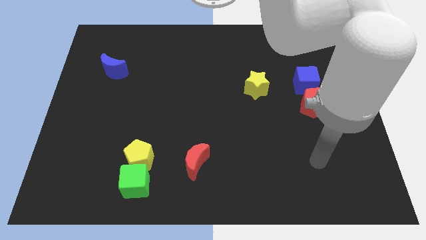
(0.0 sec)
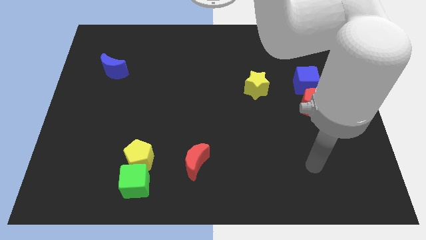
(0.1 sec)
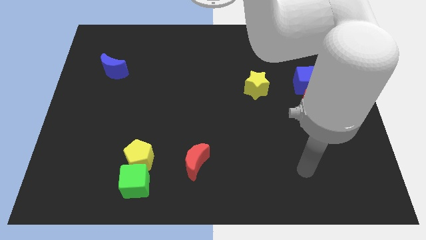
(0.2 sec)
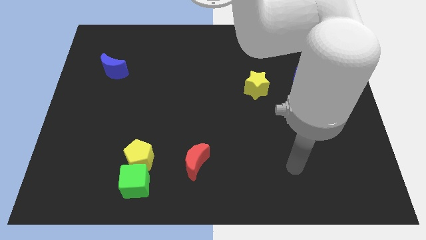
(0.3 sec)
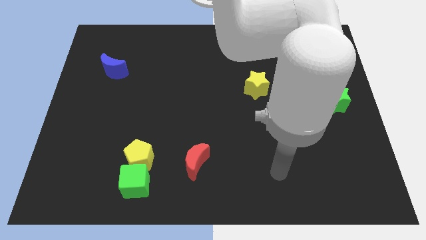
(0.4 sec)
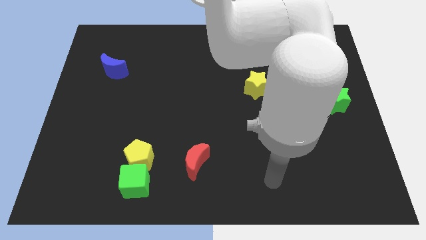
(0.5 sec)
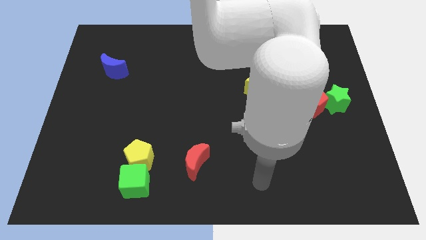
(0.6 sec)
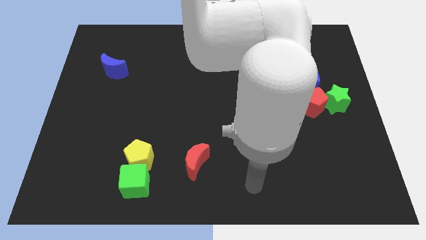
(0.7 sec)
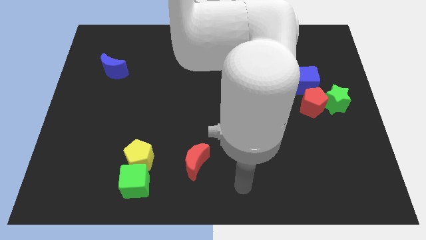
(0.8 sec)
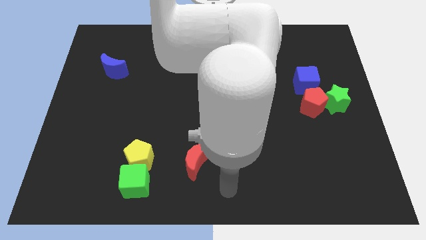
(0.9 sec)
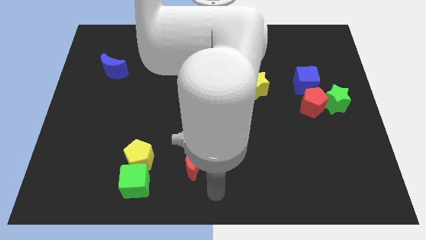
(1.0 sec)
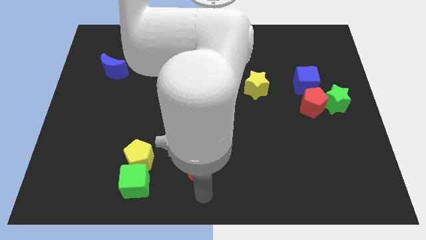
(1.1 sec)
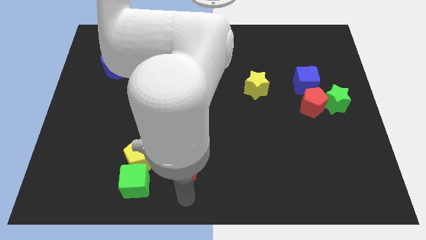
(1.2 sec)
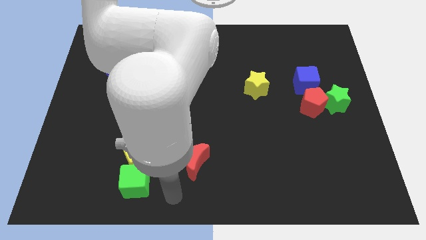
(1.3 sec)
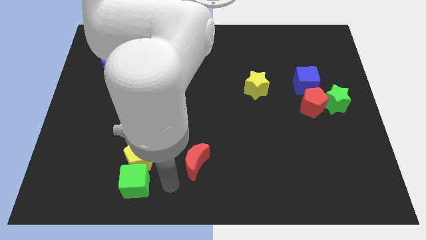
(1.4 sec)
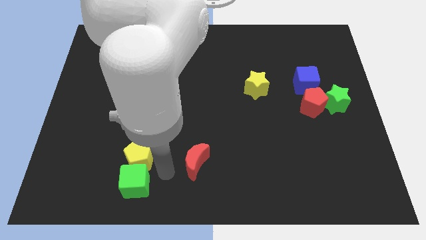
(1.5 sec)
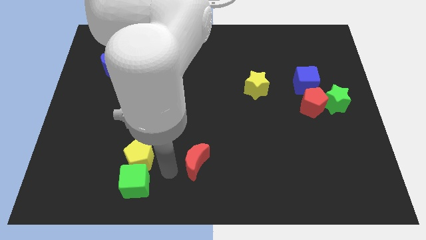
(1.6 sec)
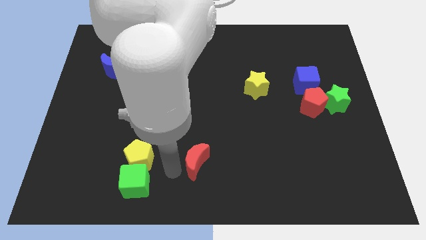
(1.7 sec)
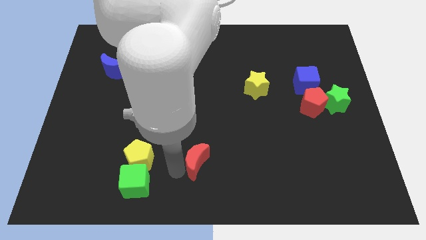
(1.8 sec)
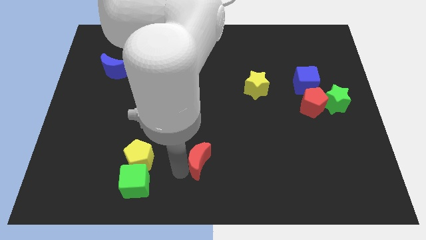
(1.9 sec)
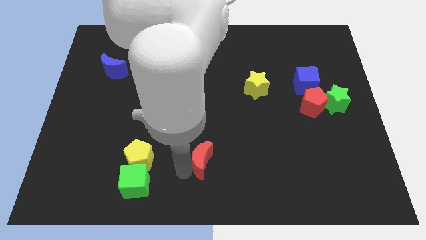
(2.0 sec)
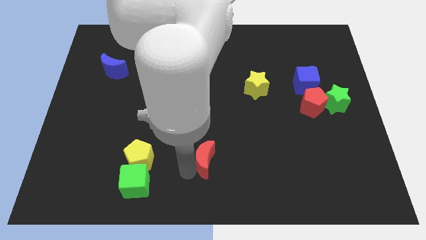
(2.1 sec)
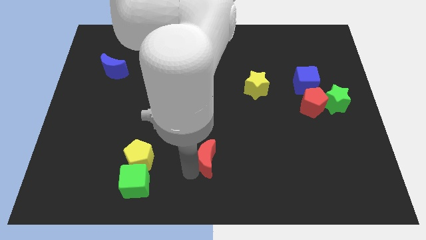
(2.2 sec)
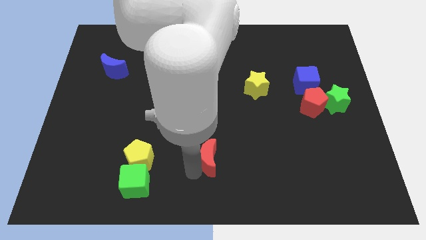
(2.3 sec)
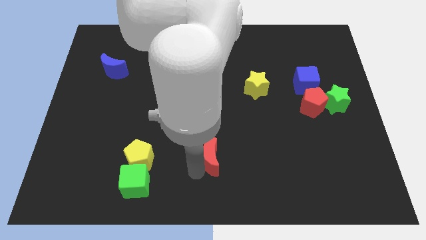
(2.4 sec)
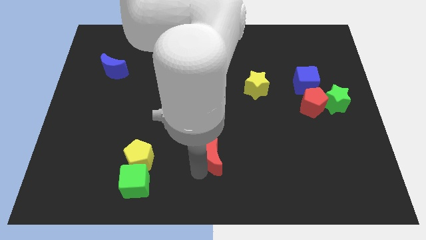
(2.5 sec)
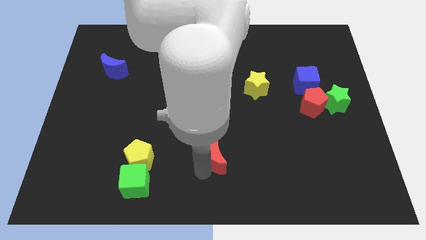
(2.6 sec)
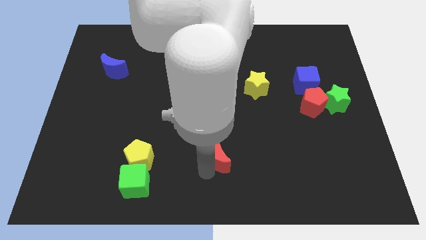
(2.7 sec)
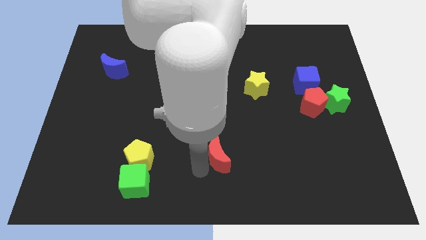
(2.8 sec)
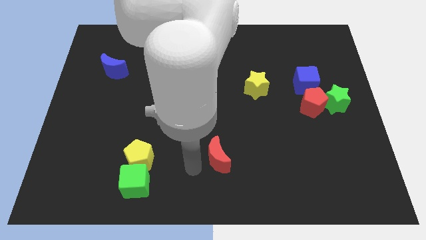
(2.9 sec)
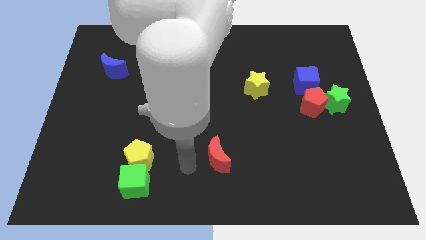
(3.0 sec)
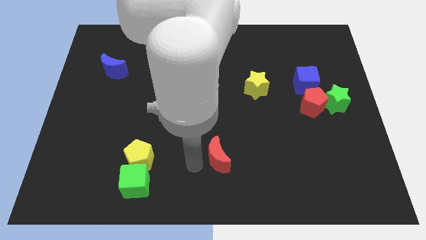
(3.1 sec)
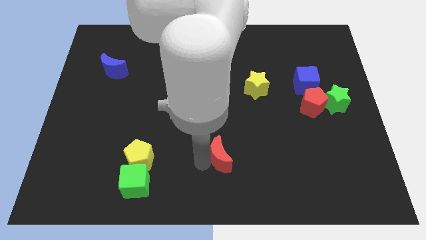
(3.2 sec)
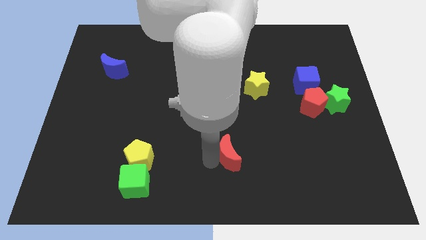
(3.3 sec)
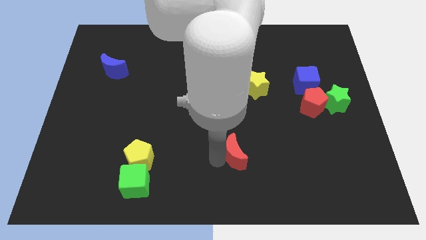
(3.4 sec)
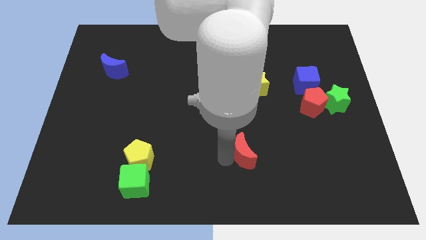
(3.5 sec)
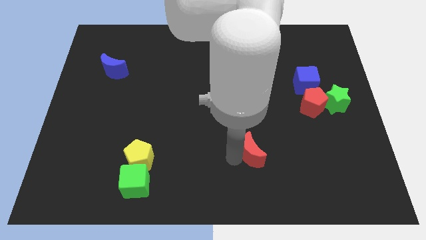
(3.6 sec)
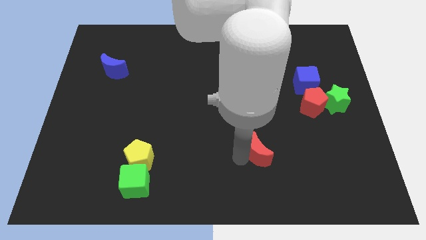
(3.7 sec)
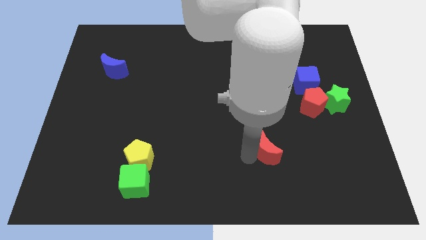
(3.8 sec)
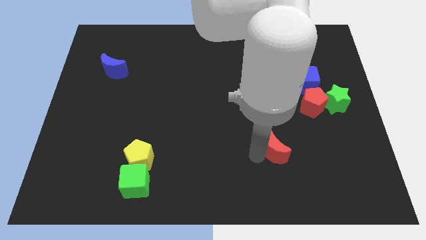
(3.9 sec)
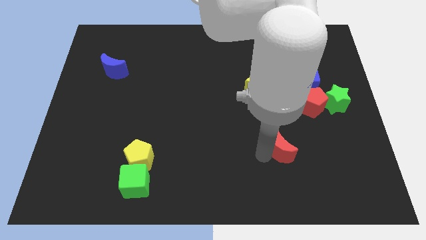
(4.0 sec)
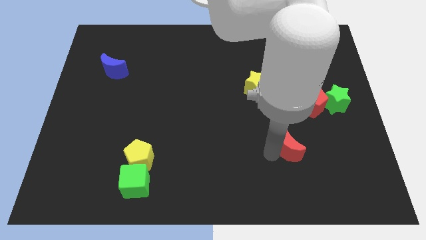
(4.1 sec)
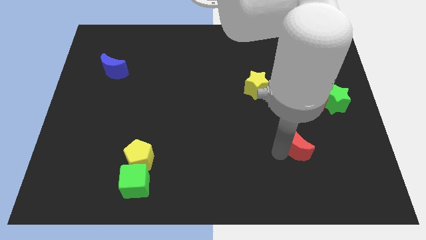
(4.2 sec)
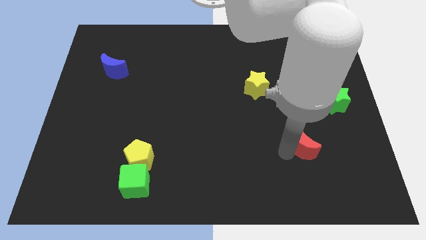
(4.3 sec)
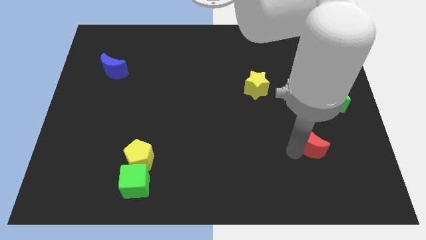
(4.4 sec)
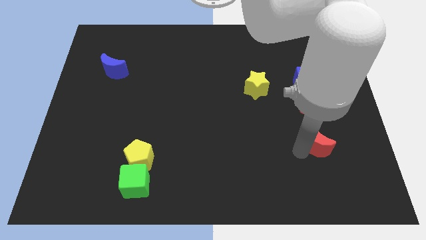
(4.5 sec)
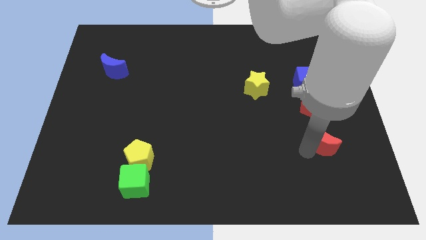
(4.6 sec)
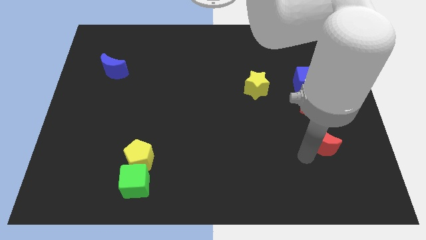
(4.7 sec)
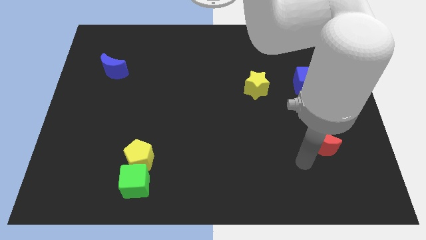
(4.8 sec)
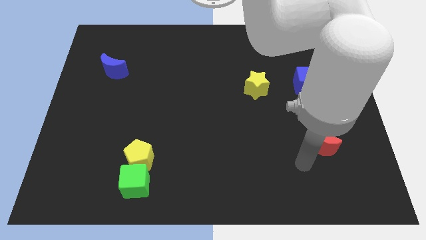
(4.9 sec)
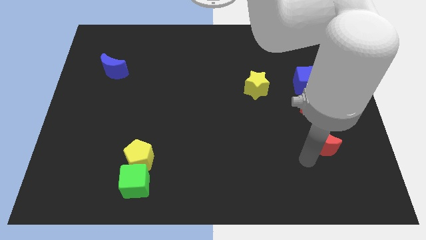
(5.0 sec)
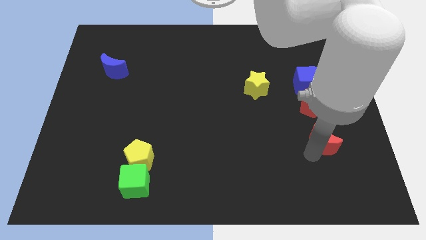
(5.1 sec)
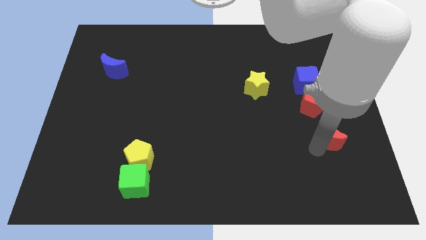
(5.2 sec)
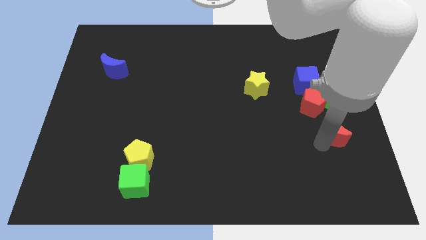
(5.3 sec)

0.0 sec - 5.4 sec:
push the red moon to the bottom right of the red pentagon

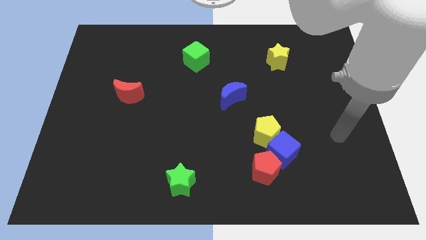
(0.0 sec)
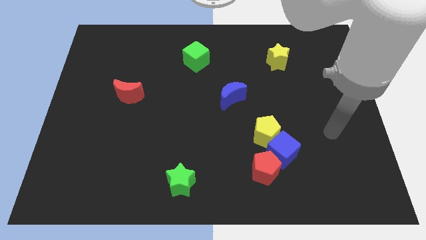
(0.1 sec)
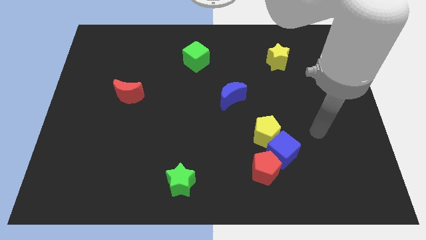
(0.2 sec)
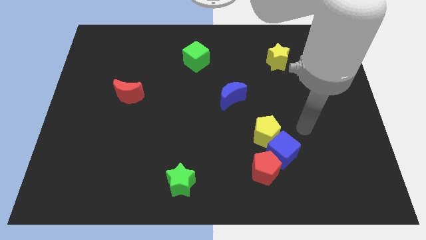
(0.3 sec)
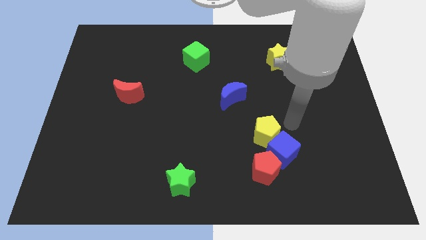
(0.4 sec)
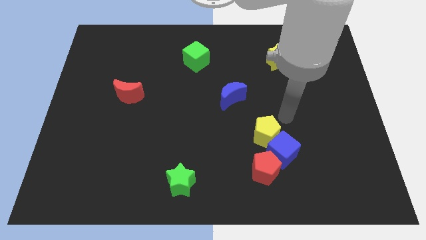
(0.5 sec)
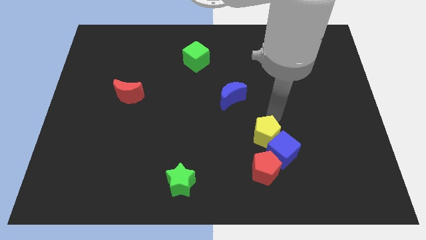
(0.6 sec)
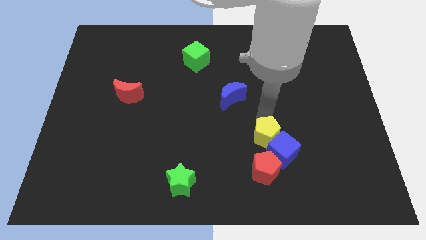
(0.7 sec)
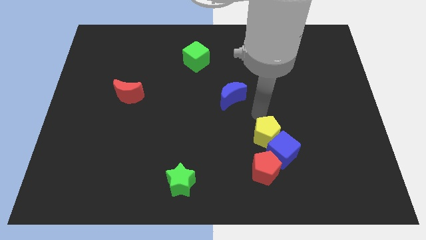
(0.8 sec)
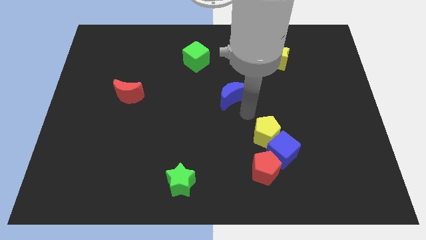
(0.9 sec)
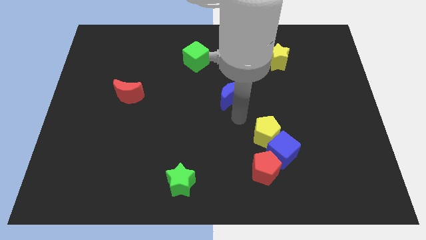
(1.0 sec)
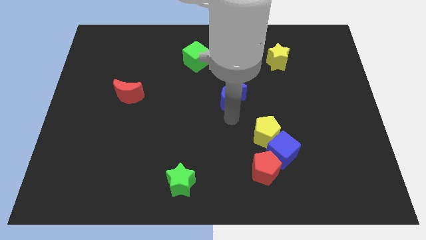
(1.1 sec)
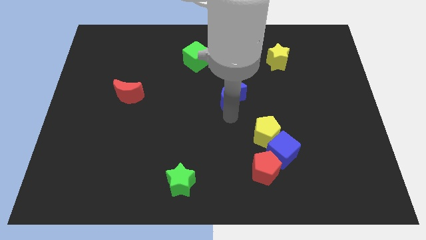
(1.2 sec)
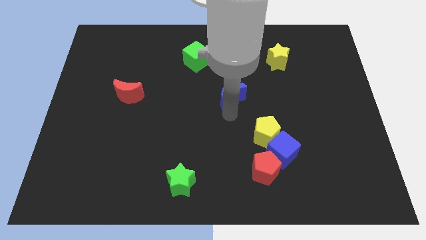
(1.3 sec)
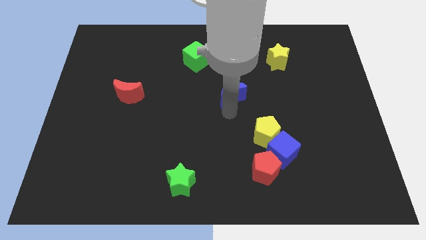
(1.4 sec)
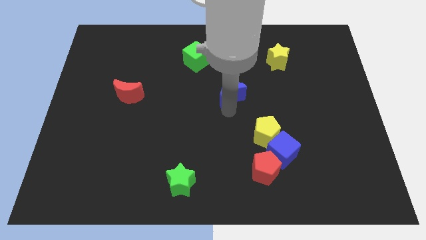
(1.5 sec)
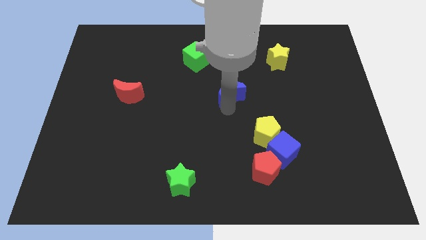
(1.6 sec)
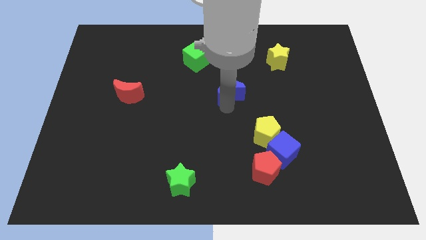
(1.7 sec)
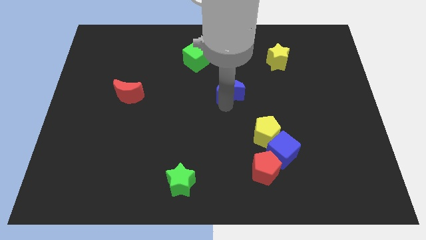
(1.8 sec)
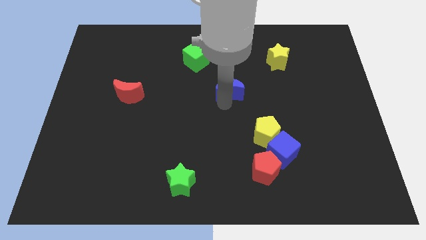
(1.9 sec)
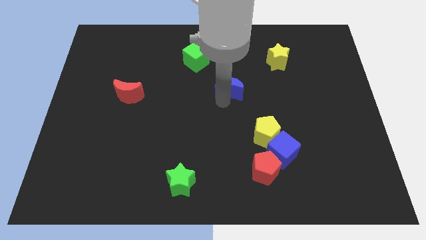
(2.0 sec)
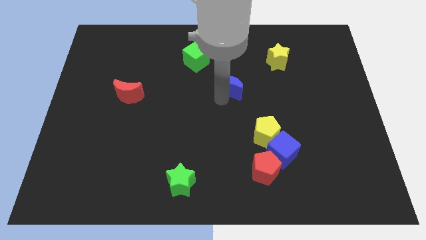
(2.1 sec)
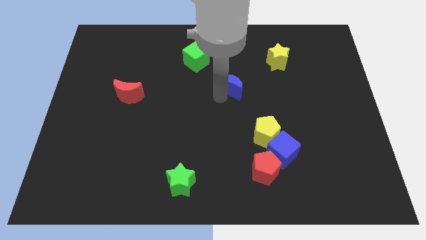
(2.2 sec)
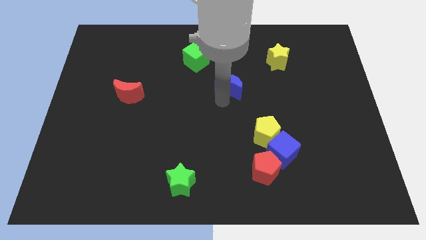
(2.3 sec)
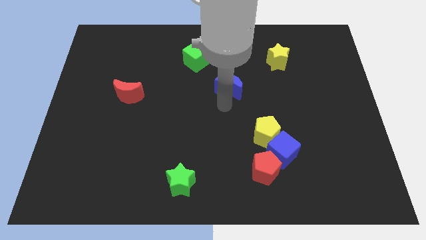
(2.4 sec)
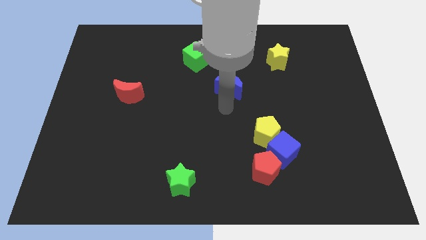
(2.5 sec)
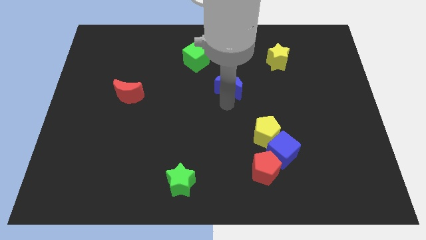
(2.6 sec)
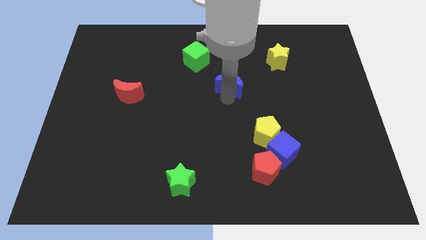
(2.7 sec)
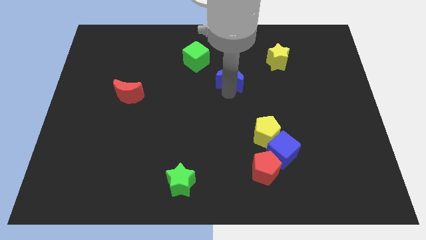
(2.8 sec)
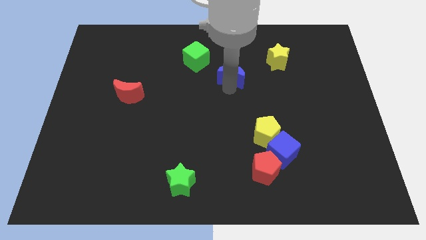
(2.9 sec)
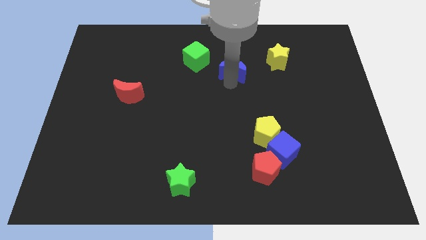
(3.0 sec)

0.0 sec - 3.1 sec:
push the blue moon to the right of the green cube
